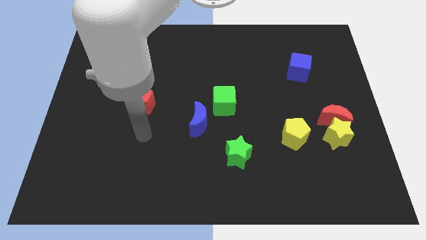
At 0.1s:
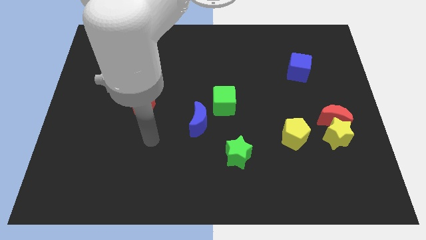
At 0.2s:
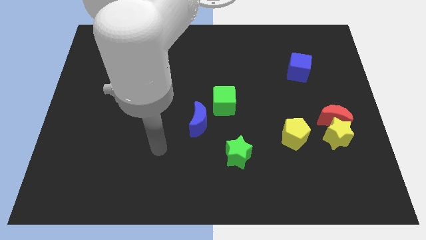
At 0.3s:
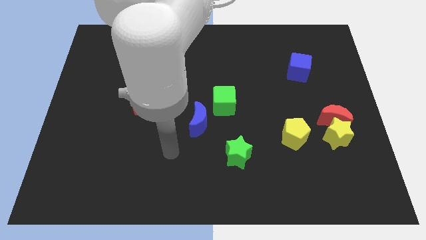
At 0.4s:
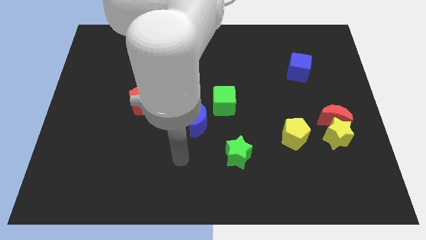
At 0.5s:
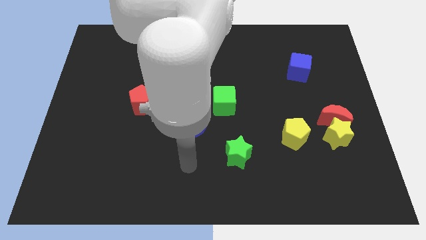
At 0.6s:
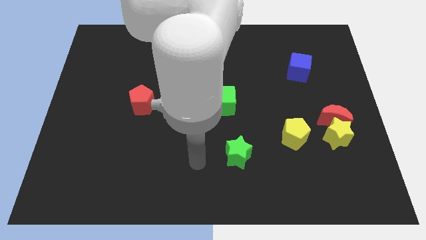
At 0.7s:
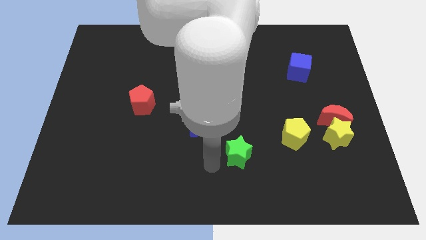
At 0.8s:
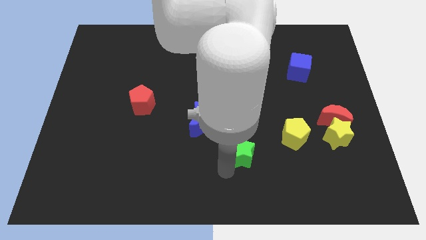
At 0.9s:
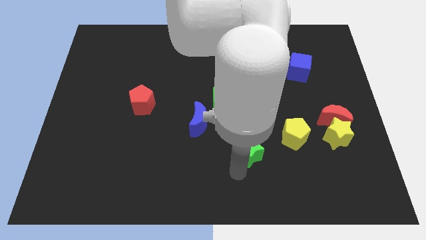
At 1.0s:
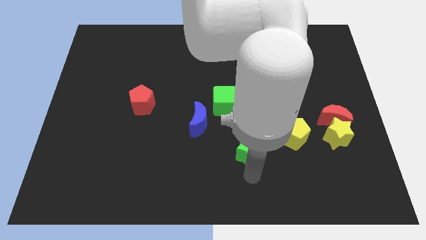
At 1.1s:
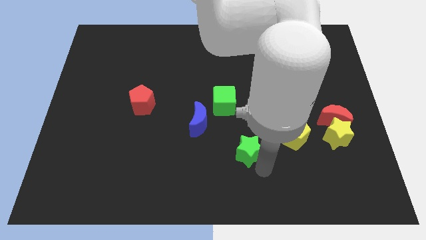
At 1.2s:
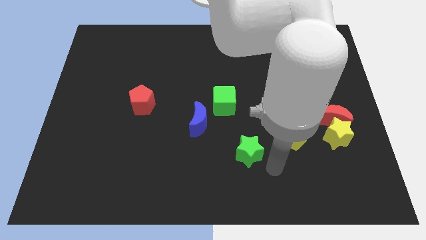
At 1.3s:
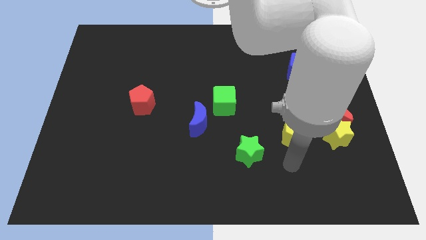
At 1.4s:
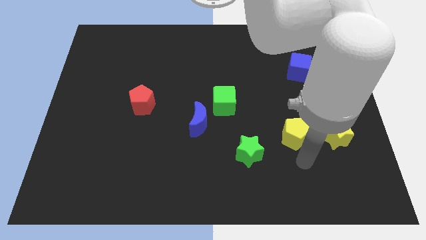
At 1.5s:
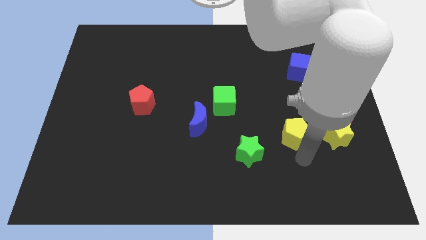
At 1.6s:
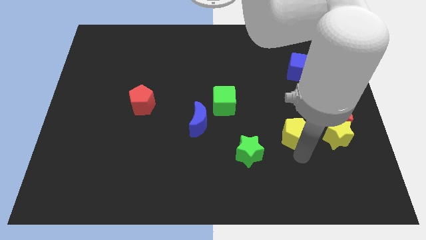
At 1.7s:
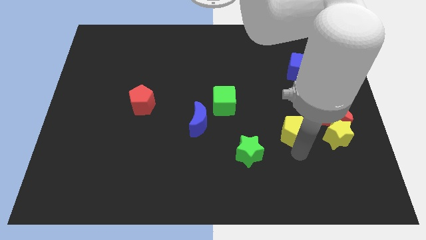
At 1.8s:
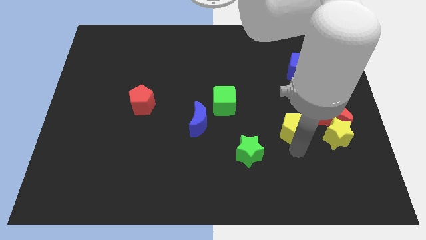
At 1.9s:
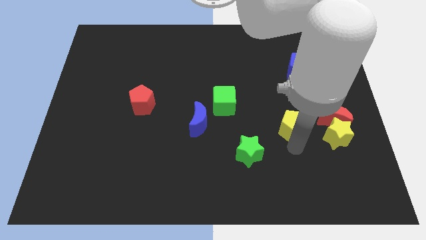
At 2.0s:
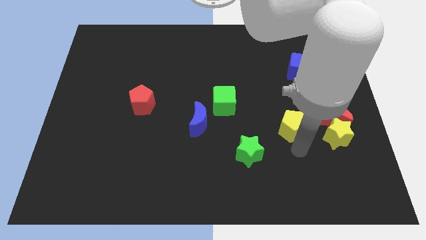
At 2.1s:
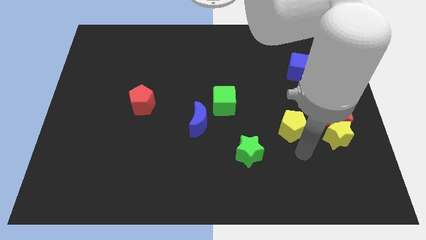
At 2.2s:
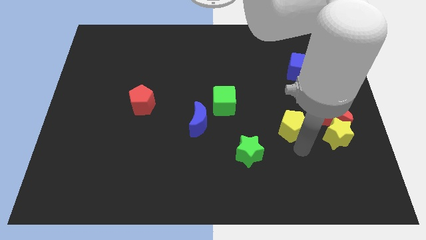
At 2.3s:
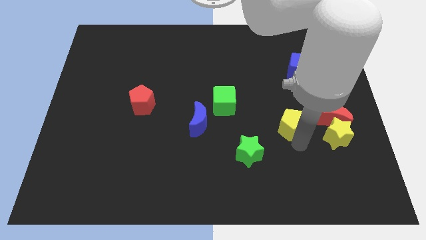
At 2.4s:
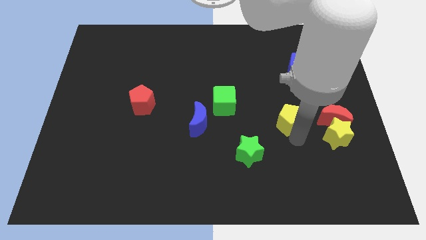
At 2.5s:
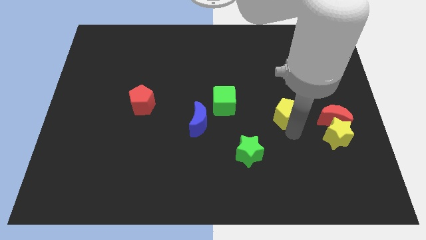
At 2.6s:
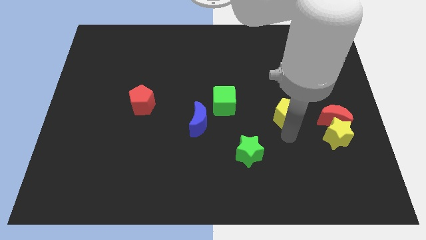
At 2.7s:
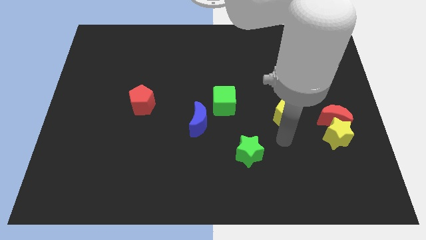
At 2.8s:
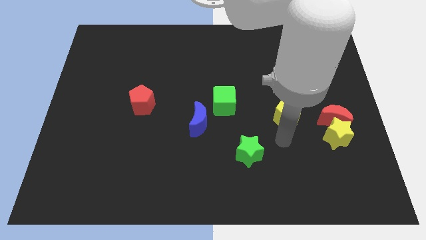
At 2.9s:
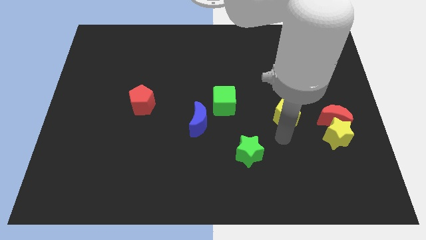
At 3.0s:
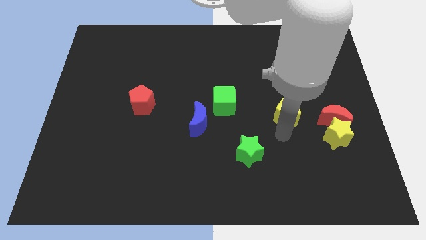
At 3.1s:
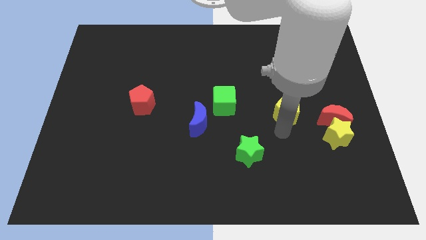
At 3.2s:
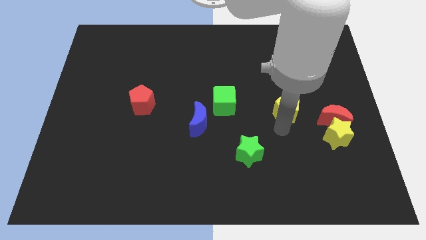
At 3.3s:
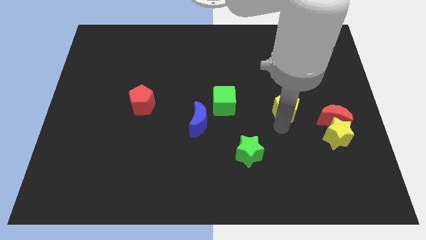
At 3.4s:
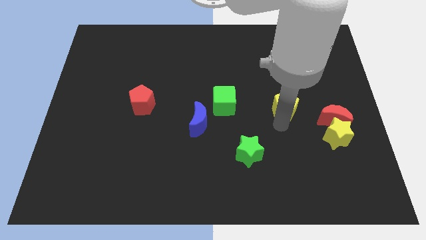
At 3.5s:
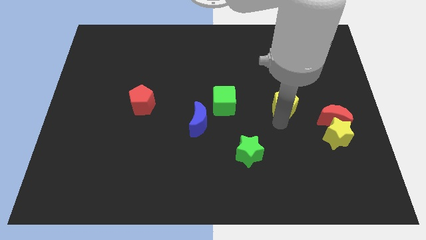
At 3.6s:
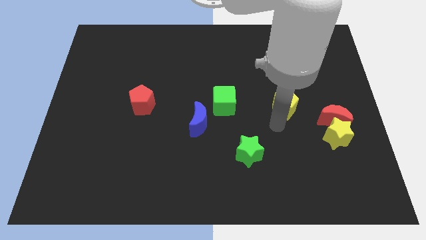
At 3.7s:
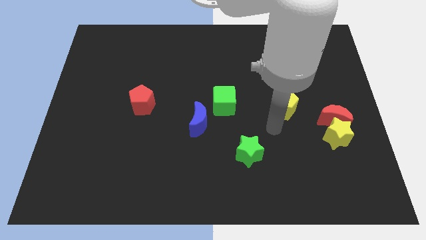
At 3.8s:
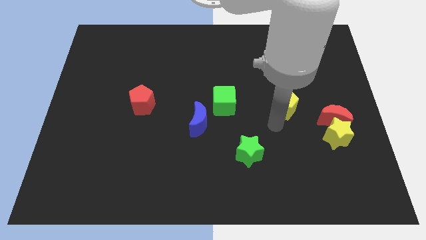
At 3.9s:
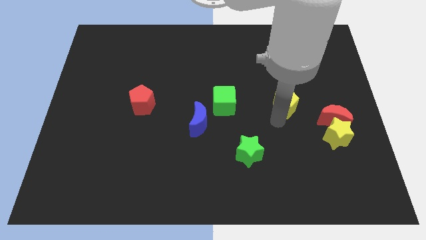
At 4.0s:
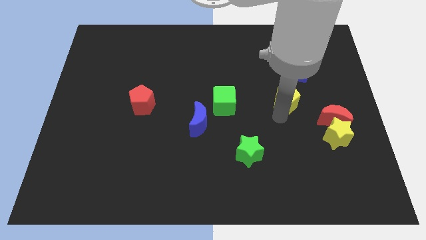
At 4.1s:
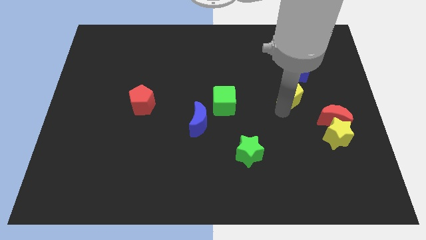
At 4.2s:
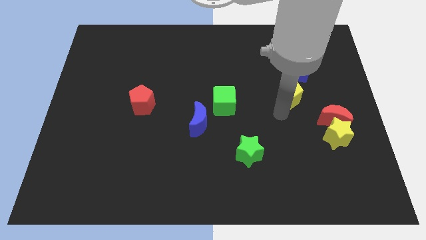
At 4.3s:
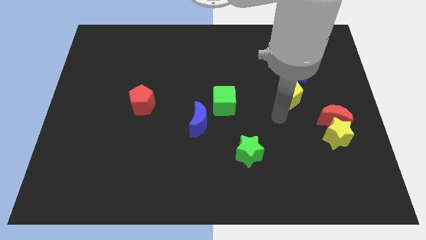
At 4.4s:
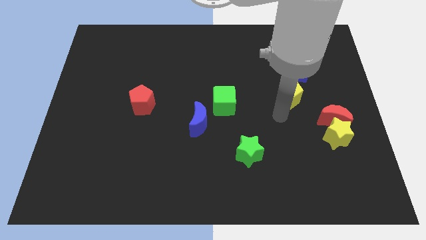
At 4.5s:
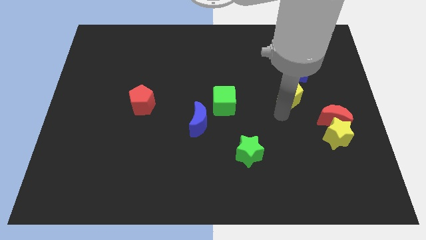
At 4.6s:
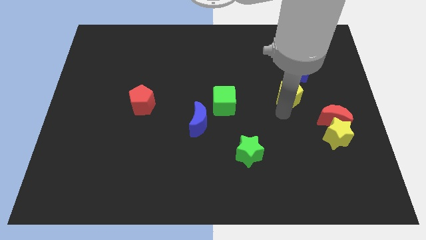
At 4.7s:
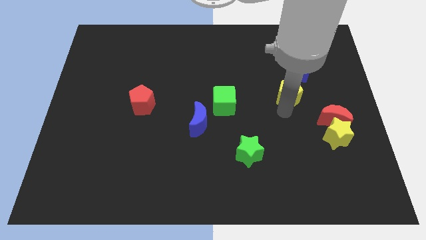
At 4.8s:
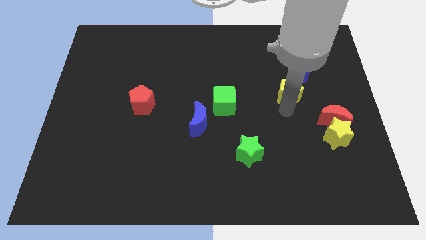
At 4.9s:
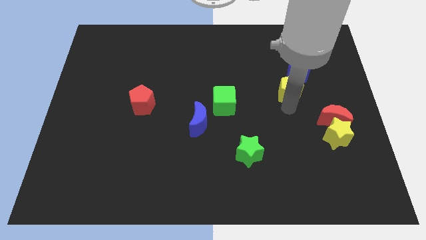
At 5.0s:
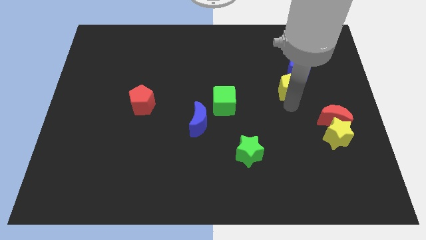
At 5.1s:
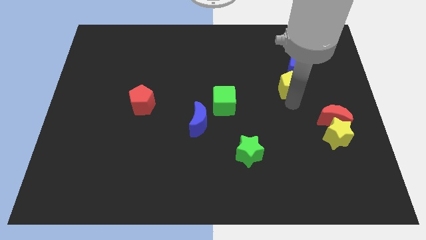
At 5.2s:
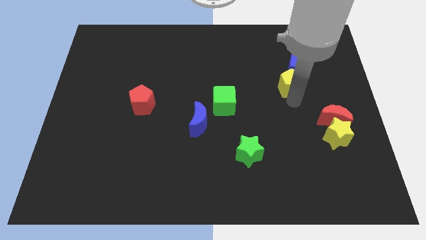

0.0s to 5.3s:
put the yellow pentagon next to the blue cube

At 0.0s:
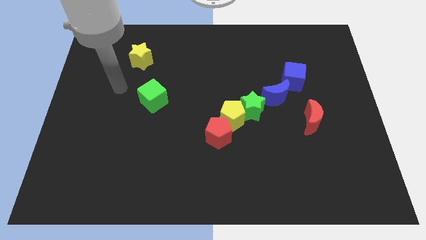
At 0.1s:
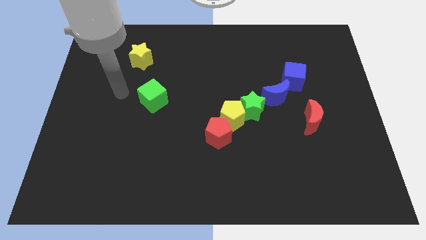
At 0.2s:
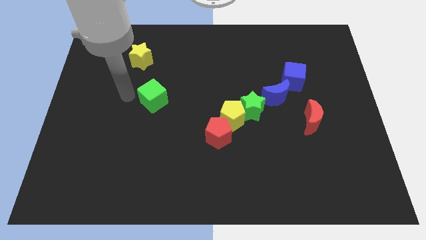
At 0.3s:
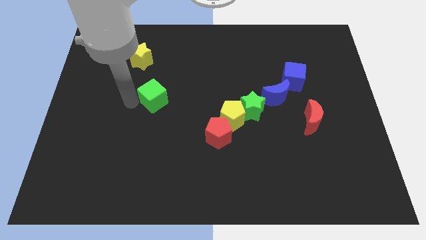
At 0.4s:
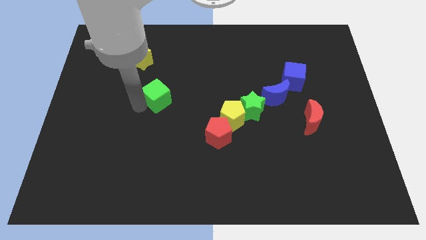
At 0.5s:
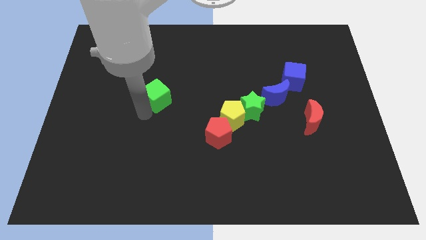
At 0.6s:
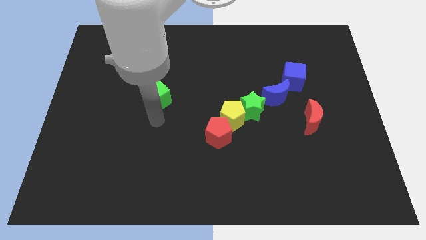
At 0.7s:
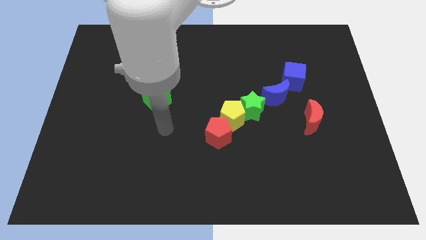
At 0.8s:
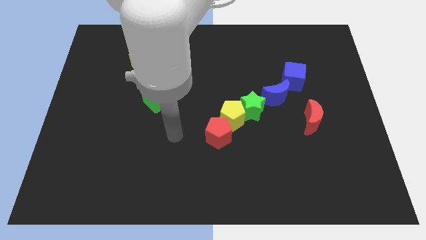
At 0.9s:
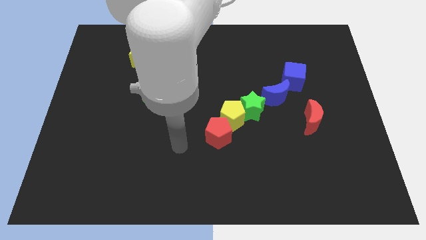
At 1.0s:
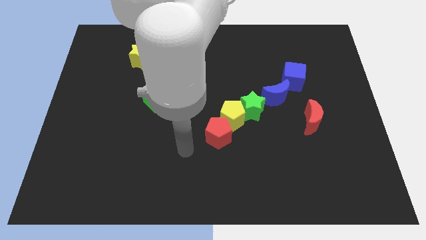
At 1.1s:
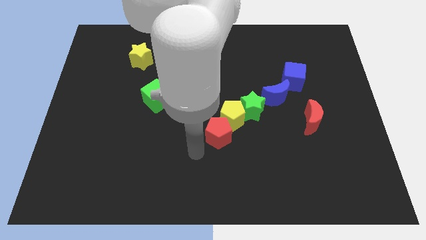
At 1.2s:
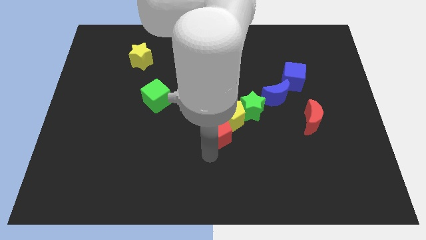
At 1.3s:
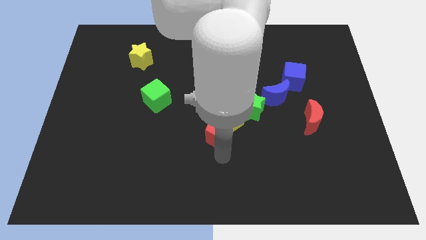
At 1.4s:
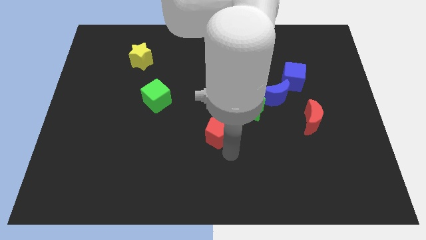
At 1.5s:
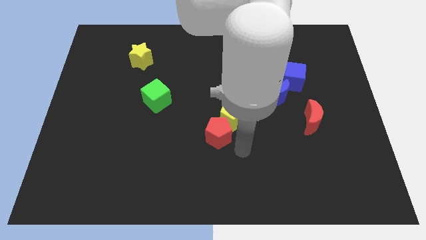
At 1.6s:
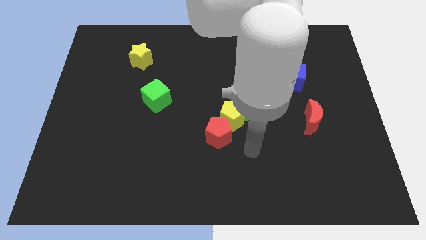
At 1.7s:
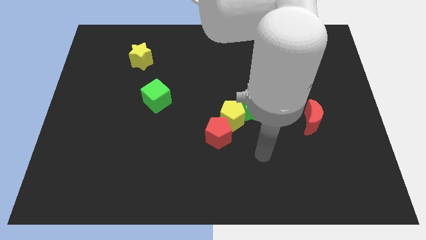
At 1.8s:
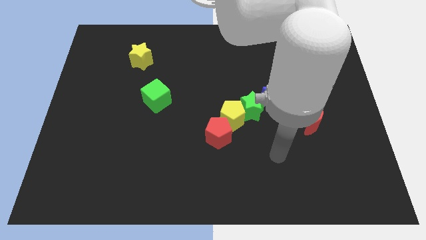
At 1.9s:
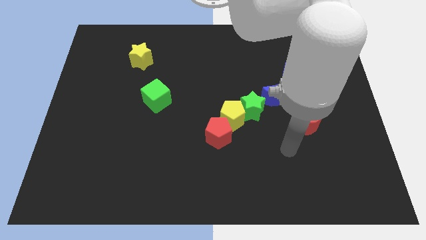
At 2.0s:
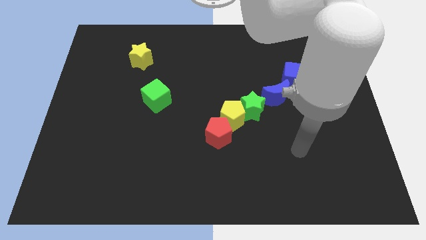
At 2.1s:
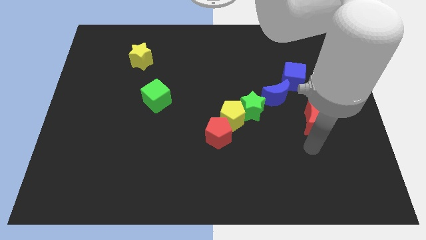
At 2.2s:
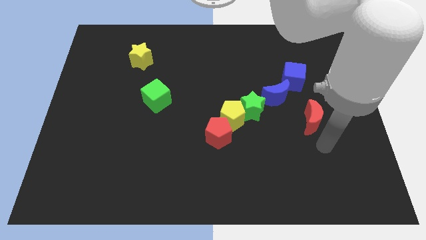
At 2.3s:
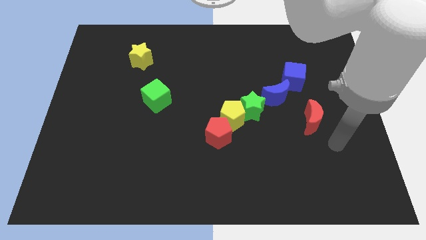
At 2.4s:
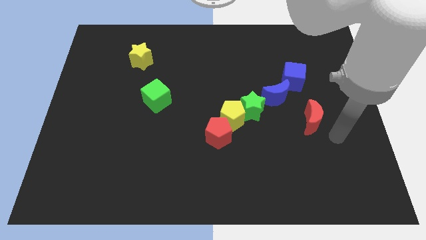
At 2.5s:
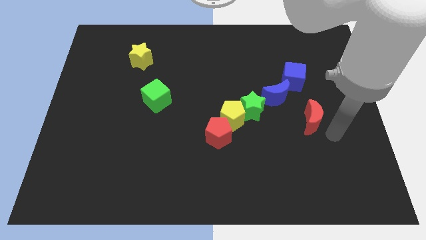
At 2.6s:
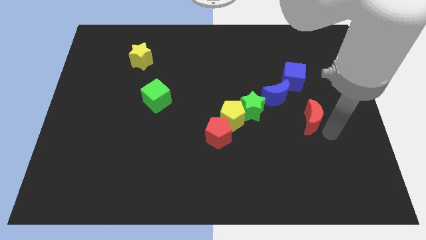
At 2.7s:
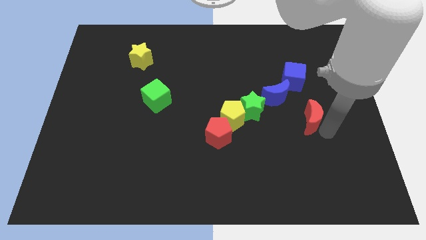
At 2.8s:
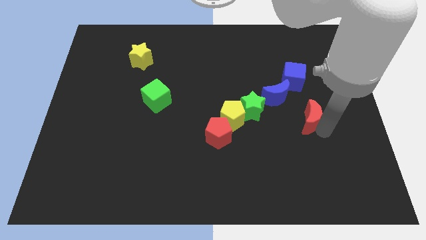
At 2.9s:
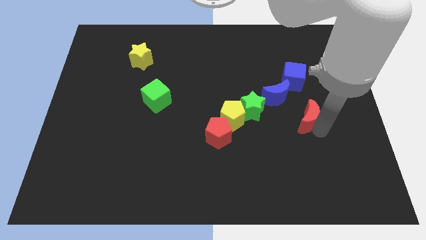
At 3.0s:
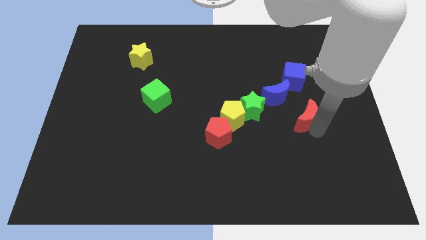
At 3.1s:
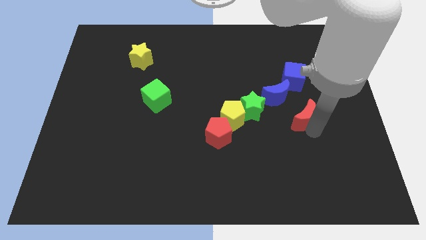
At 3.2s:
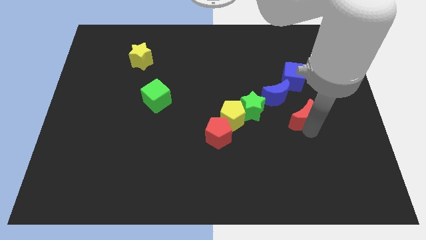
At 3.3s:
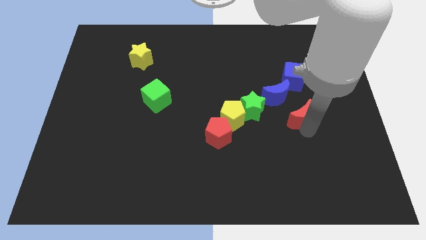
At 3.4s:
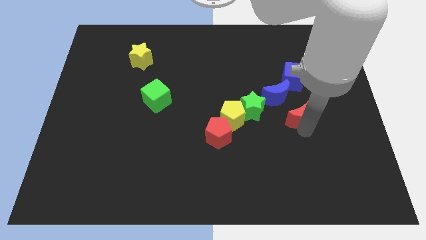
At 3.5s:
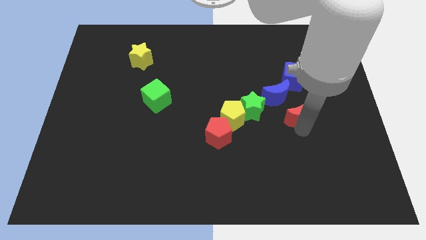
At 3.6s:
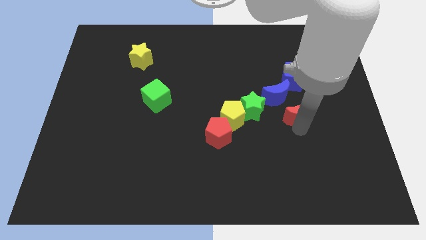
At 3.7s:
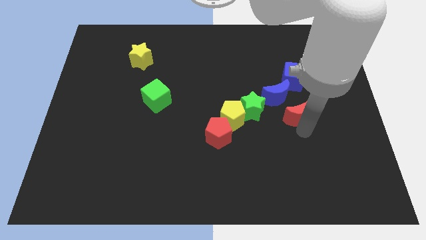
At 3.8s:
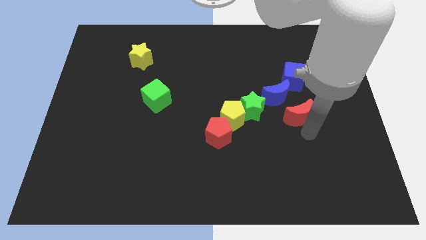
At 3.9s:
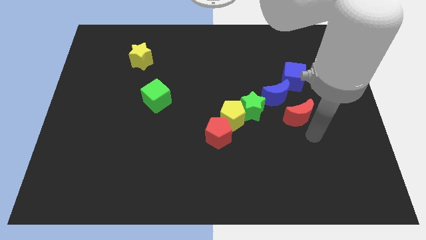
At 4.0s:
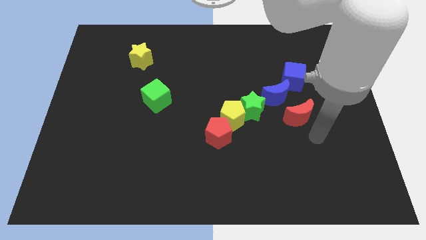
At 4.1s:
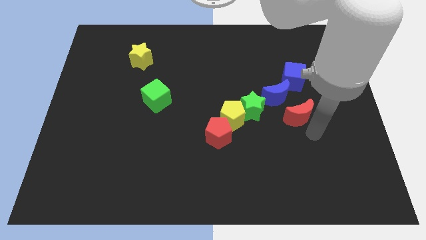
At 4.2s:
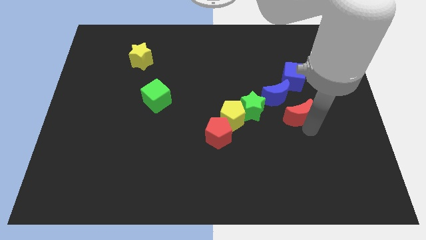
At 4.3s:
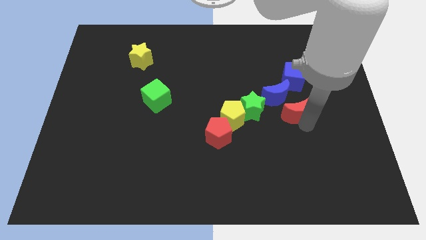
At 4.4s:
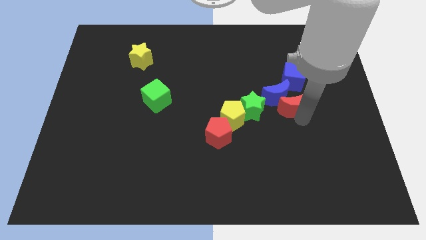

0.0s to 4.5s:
put the red moon towards the blue moon
